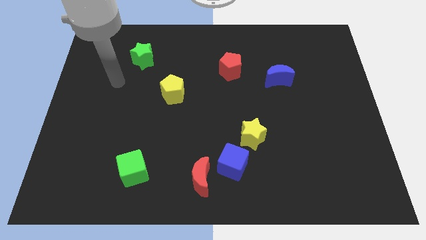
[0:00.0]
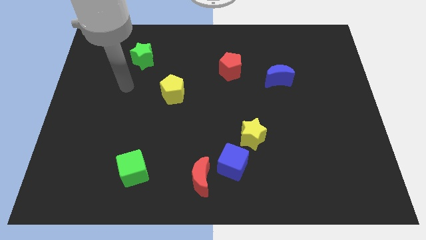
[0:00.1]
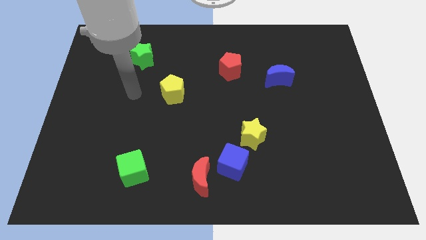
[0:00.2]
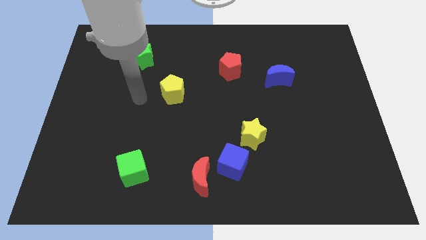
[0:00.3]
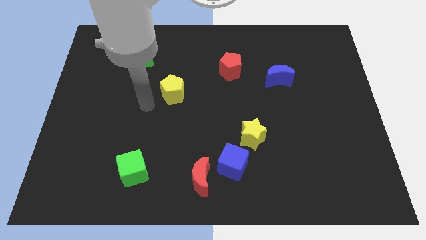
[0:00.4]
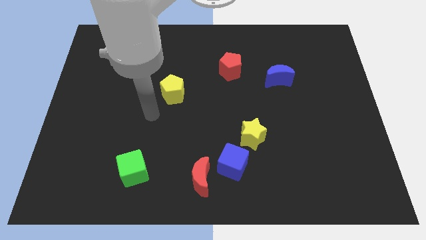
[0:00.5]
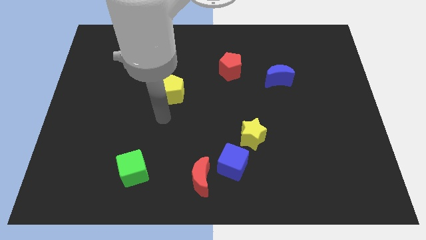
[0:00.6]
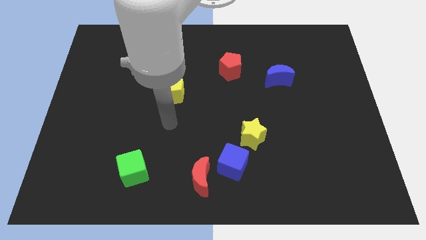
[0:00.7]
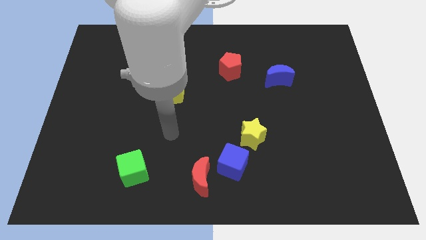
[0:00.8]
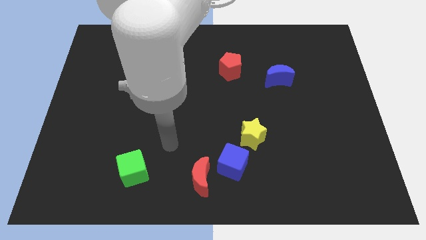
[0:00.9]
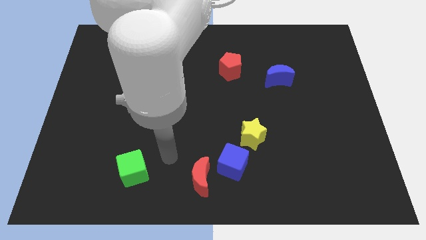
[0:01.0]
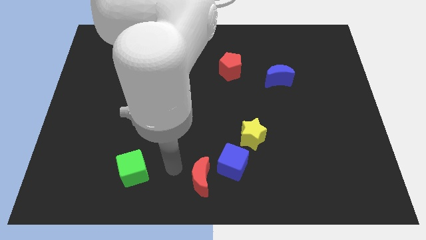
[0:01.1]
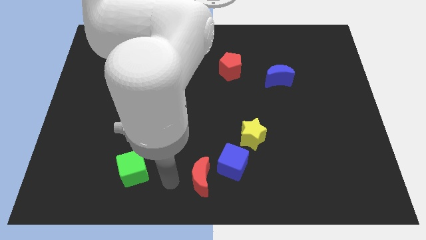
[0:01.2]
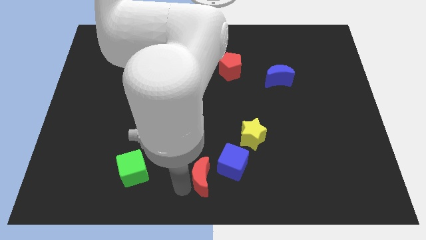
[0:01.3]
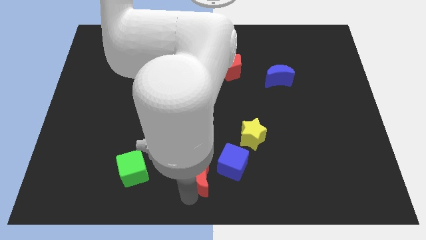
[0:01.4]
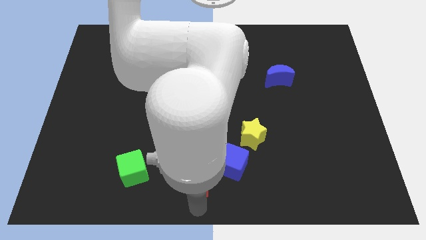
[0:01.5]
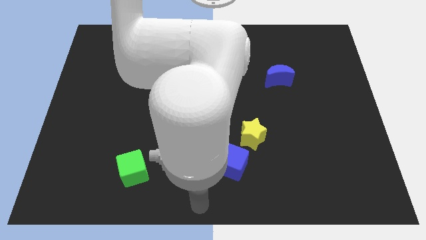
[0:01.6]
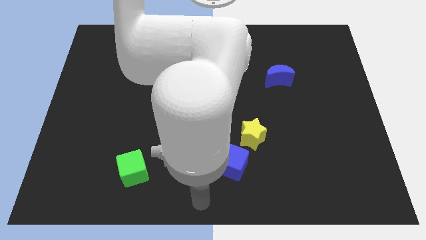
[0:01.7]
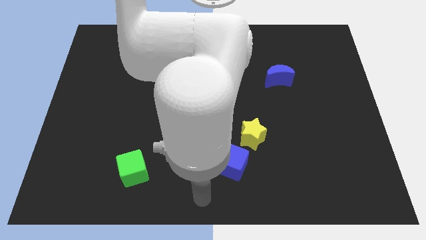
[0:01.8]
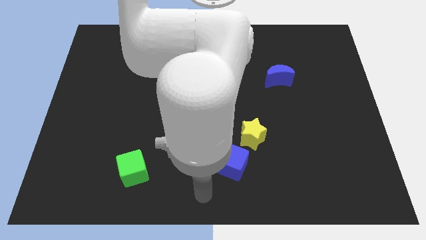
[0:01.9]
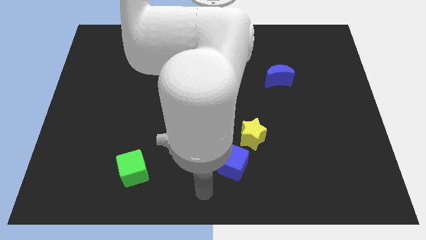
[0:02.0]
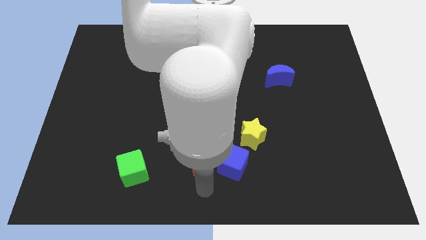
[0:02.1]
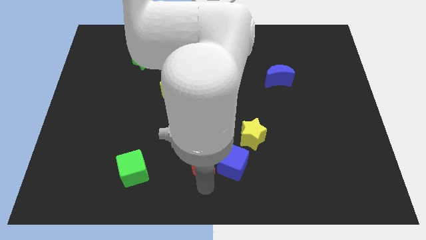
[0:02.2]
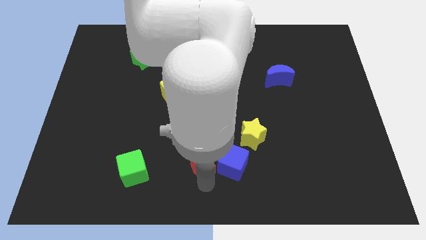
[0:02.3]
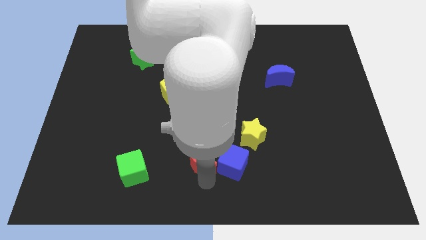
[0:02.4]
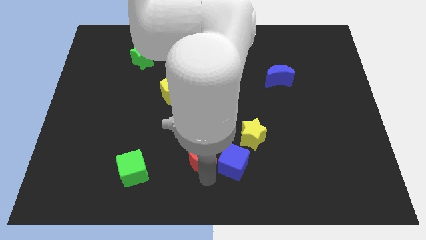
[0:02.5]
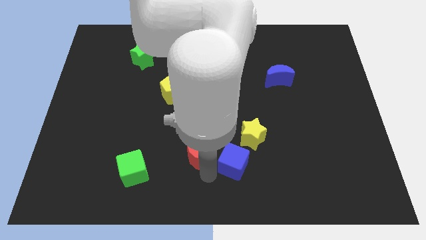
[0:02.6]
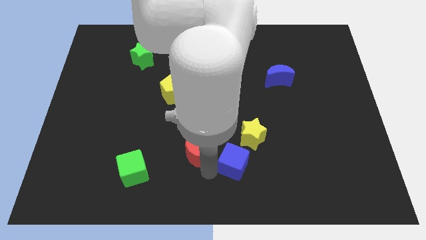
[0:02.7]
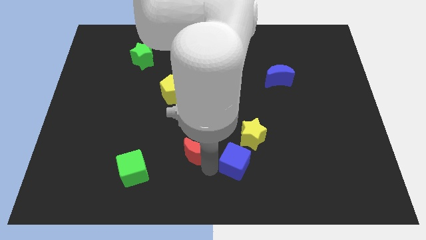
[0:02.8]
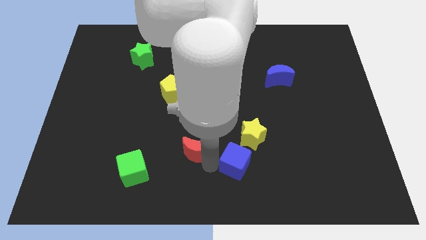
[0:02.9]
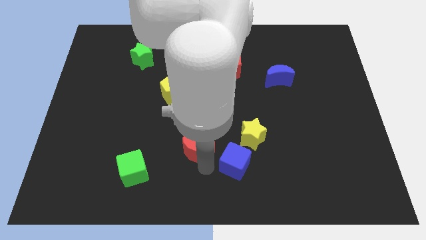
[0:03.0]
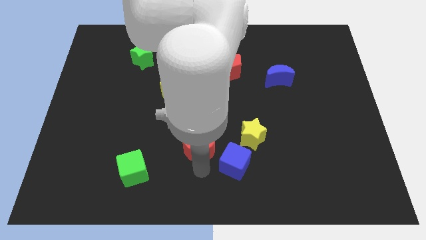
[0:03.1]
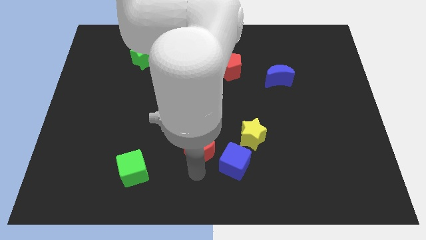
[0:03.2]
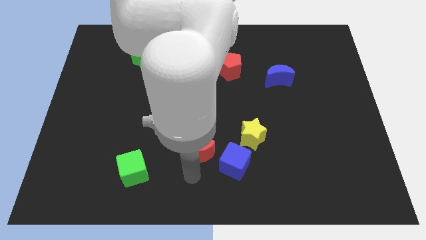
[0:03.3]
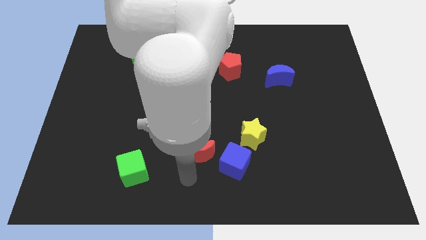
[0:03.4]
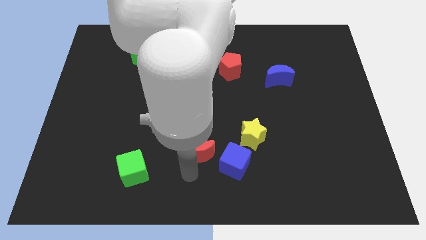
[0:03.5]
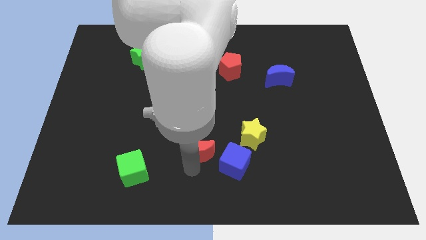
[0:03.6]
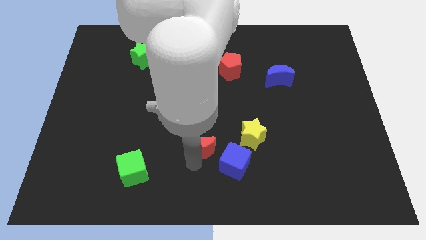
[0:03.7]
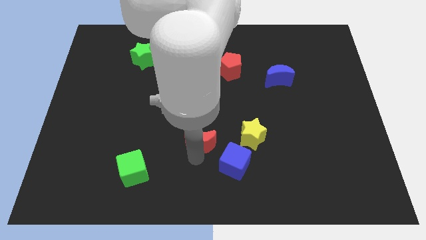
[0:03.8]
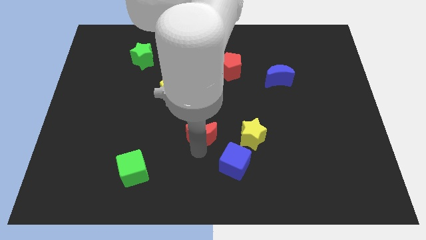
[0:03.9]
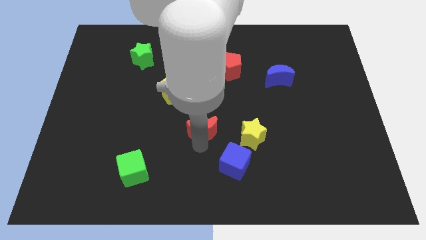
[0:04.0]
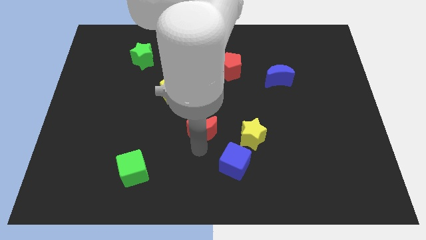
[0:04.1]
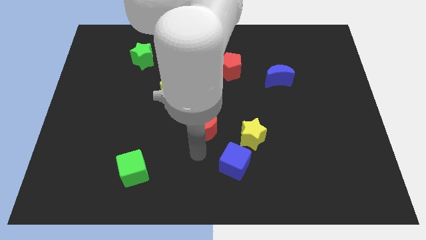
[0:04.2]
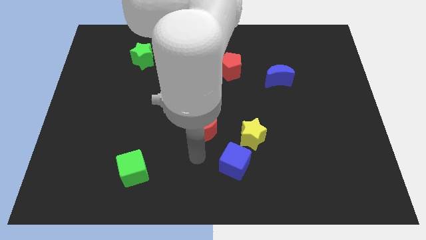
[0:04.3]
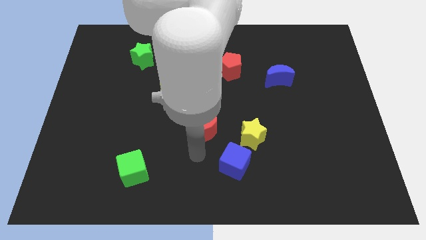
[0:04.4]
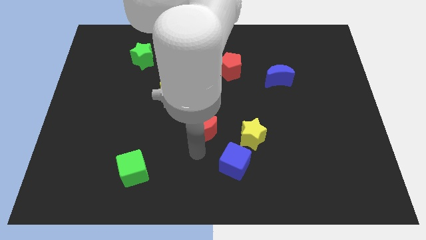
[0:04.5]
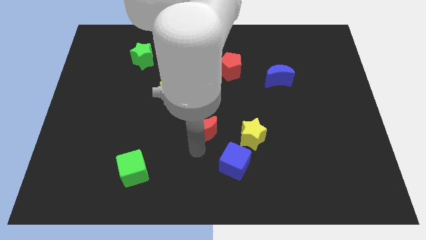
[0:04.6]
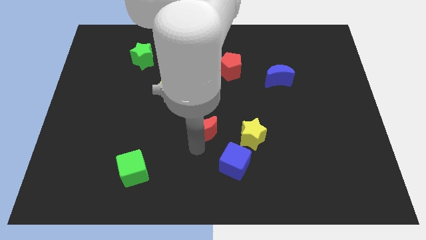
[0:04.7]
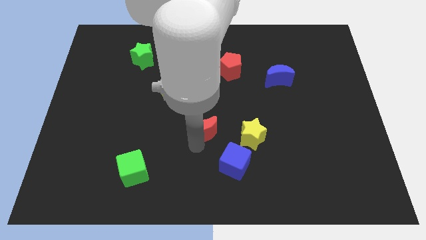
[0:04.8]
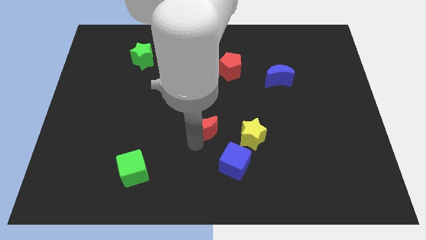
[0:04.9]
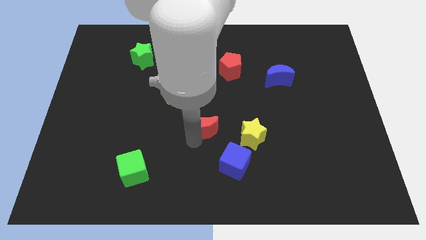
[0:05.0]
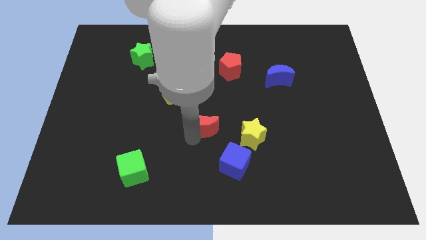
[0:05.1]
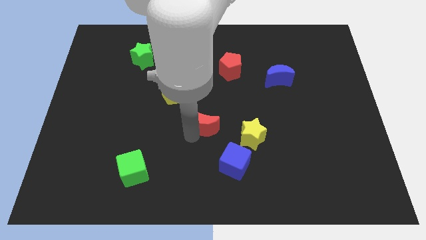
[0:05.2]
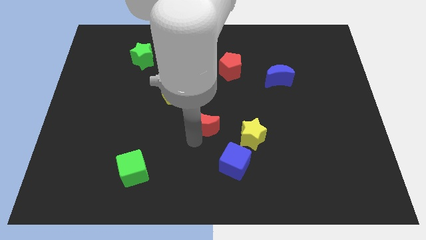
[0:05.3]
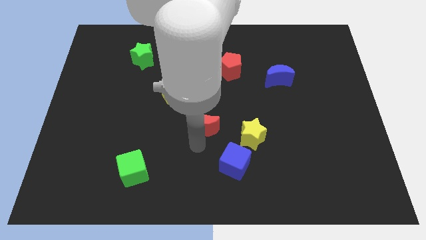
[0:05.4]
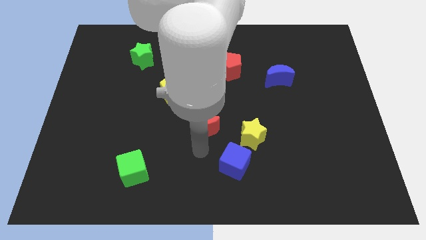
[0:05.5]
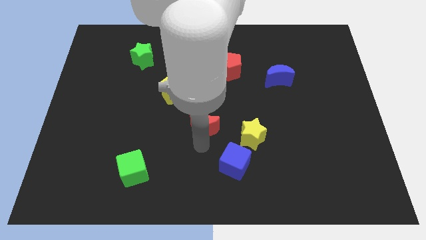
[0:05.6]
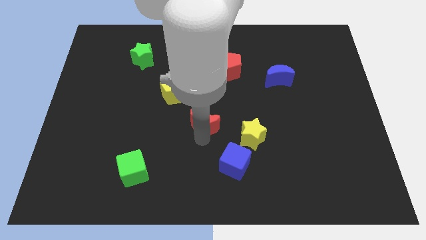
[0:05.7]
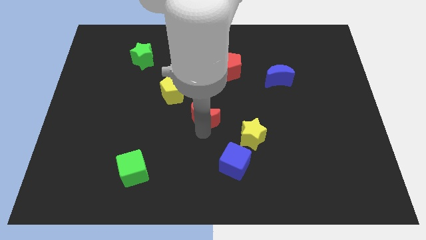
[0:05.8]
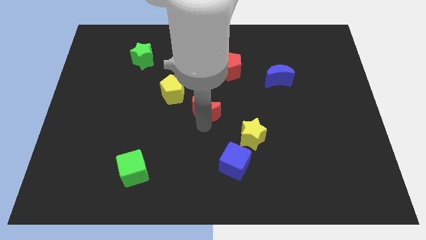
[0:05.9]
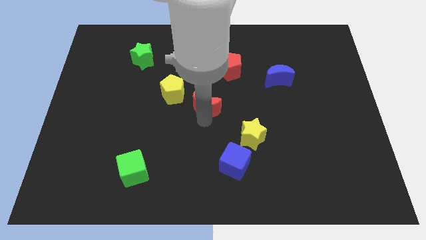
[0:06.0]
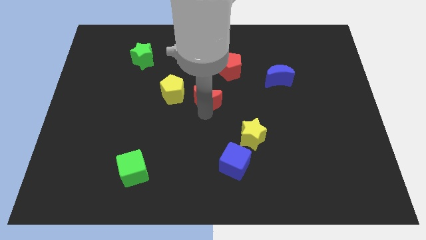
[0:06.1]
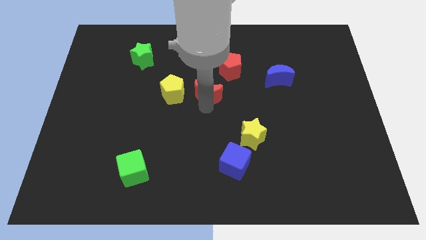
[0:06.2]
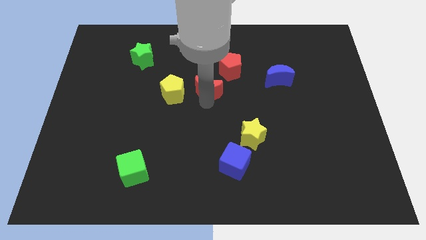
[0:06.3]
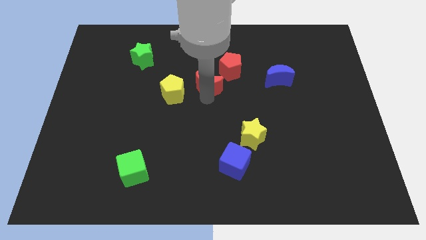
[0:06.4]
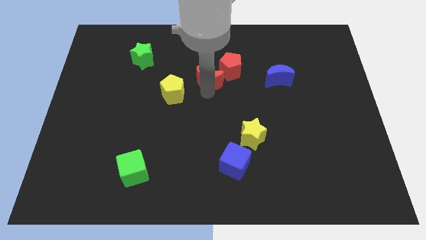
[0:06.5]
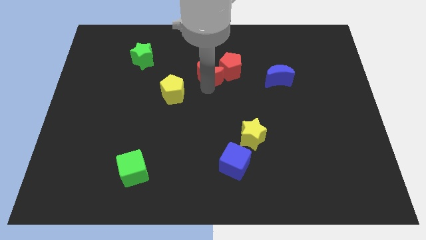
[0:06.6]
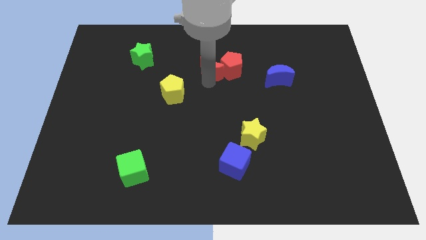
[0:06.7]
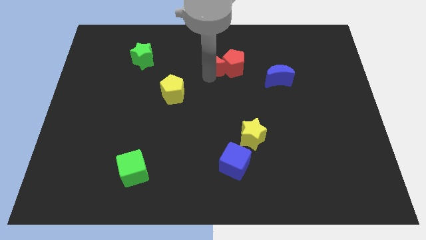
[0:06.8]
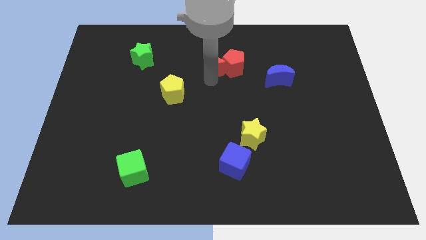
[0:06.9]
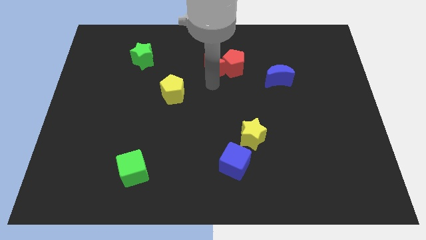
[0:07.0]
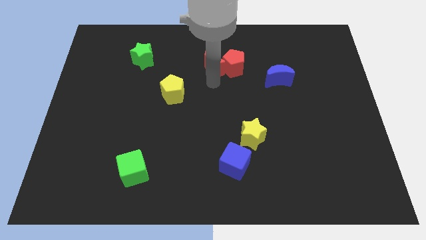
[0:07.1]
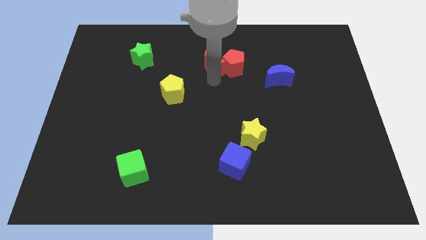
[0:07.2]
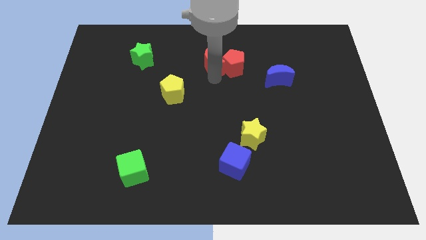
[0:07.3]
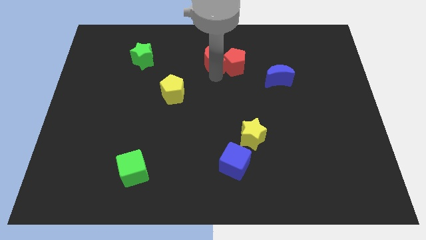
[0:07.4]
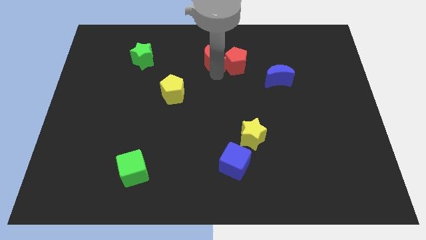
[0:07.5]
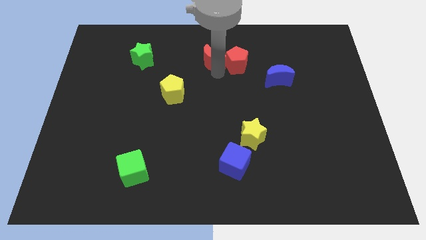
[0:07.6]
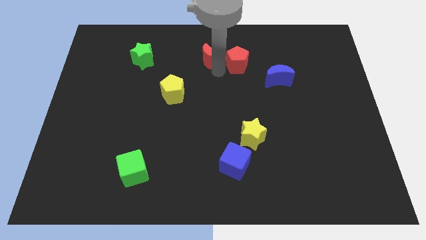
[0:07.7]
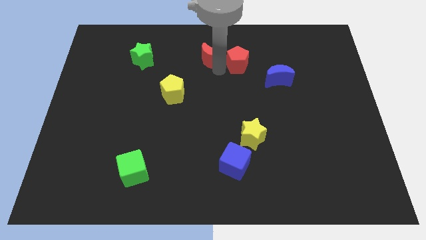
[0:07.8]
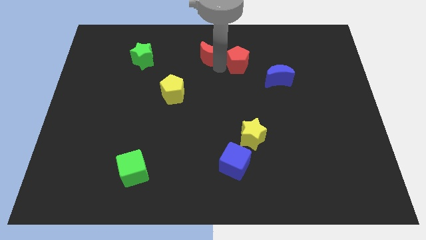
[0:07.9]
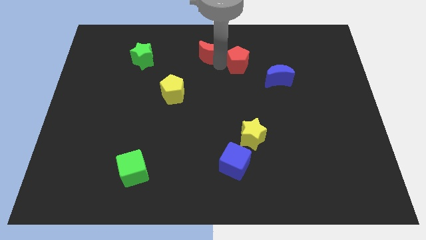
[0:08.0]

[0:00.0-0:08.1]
put the red moon to the top side
